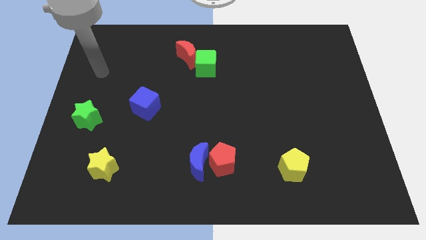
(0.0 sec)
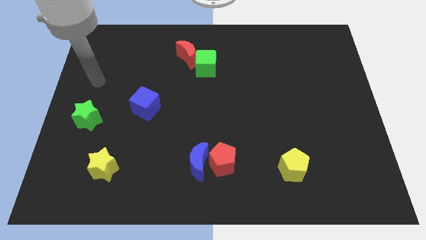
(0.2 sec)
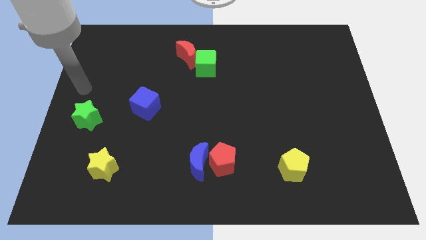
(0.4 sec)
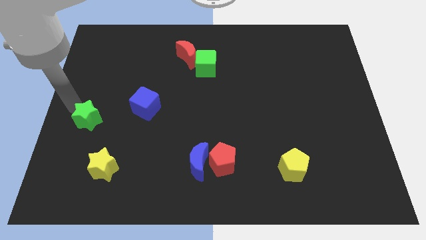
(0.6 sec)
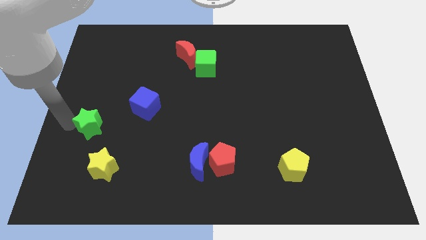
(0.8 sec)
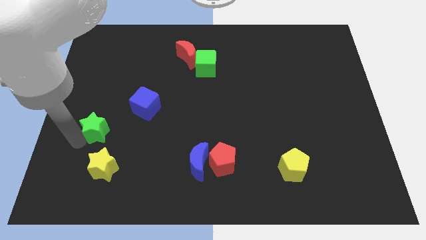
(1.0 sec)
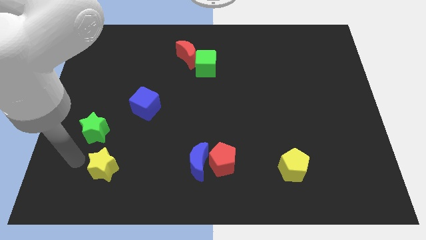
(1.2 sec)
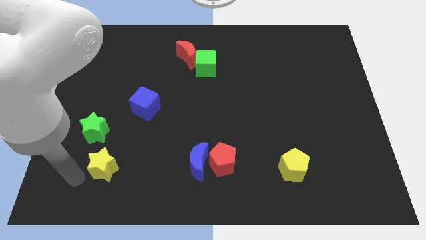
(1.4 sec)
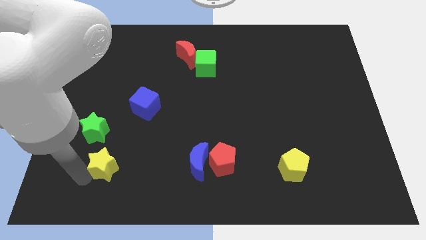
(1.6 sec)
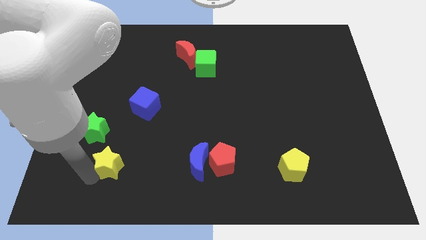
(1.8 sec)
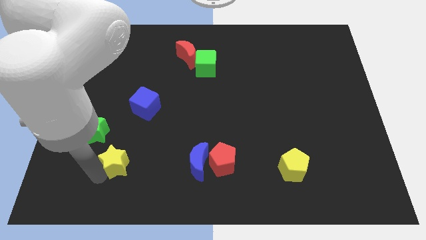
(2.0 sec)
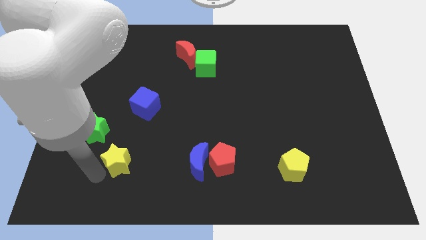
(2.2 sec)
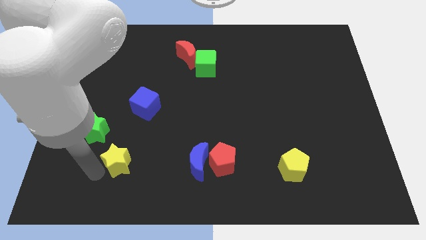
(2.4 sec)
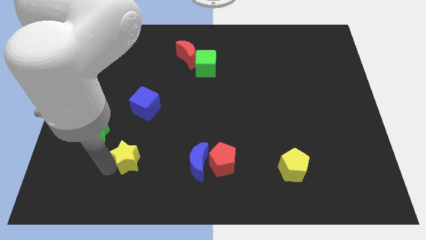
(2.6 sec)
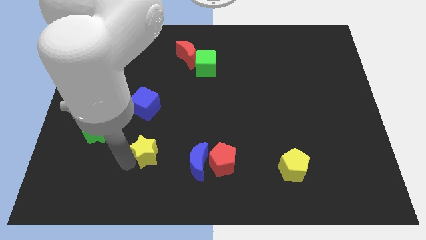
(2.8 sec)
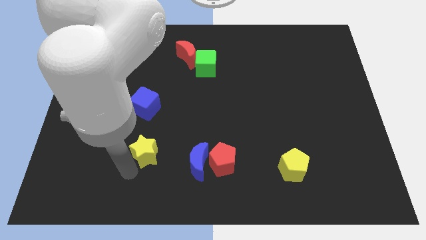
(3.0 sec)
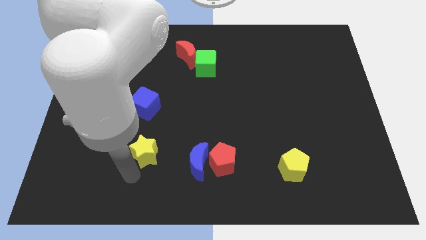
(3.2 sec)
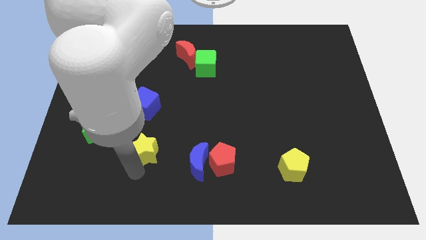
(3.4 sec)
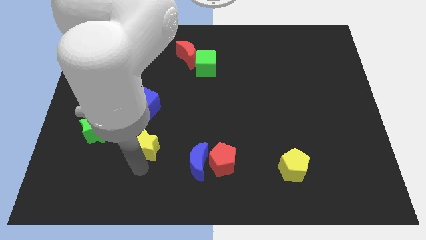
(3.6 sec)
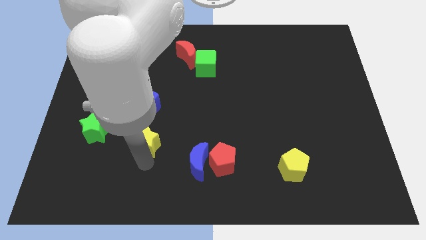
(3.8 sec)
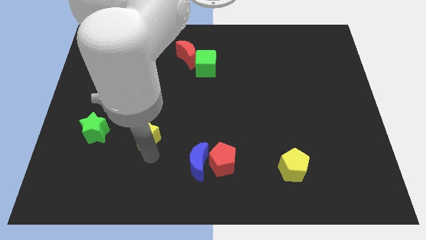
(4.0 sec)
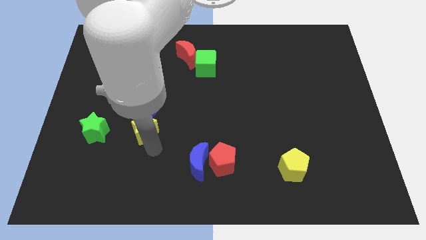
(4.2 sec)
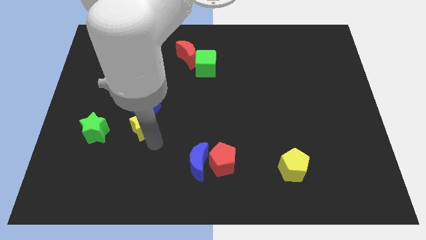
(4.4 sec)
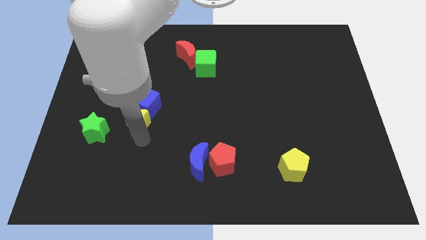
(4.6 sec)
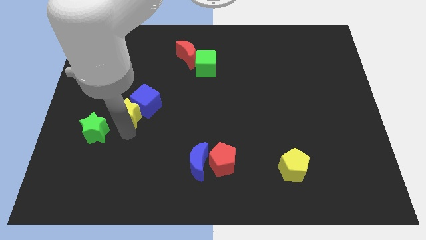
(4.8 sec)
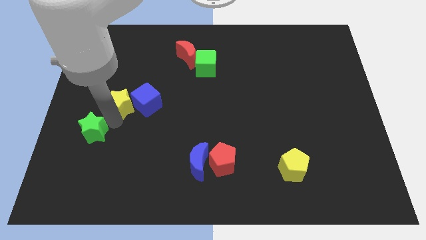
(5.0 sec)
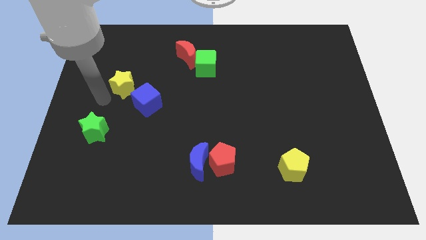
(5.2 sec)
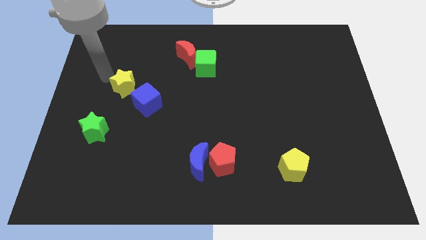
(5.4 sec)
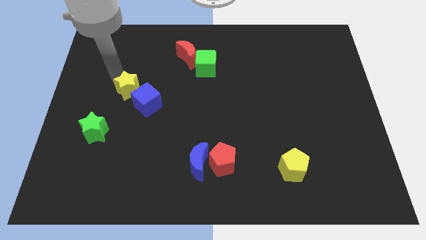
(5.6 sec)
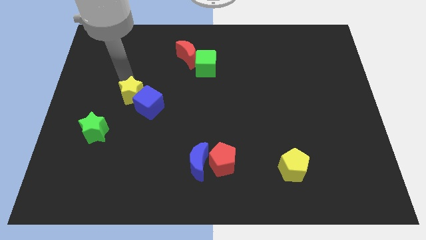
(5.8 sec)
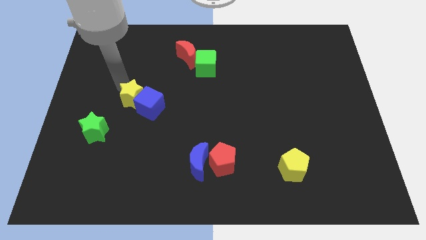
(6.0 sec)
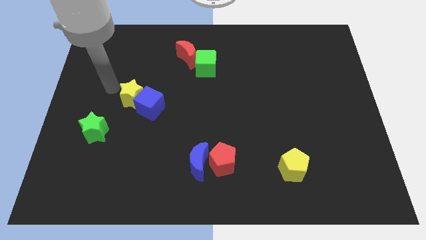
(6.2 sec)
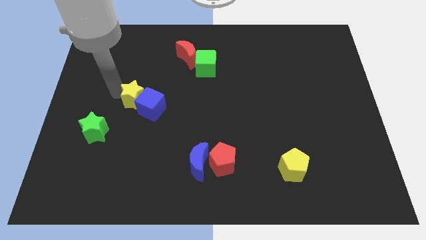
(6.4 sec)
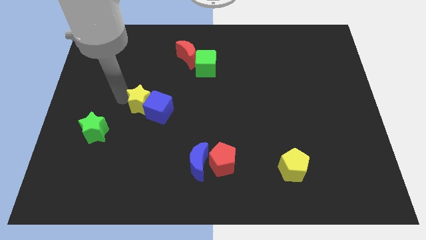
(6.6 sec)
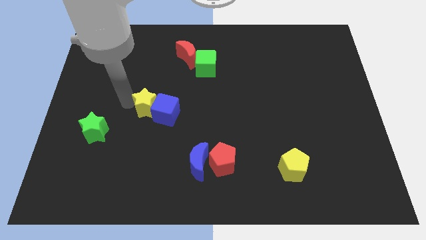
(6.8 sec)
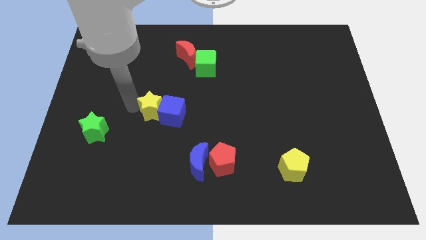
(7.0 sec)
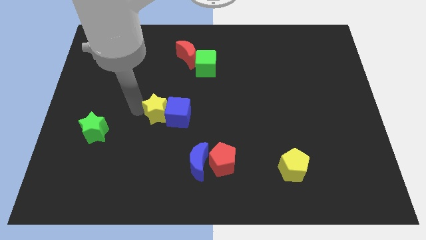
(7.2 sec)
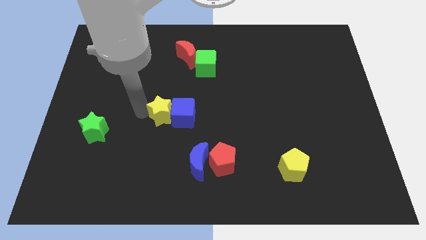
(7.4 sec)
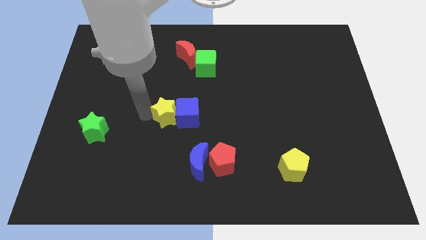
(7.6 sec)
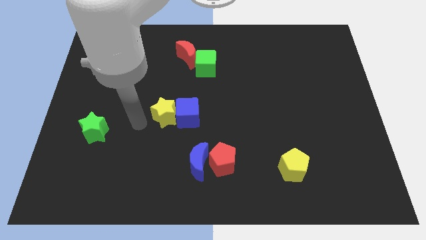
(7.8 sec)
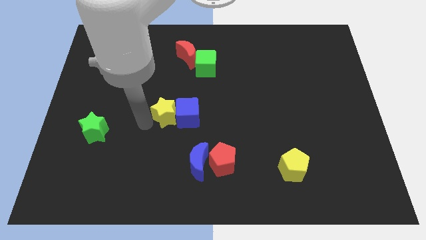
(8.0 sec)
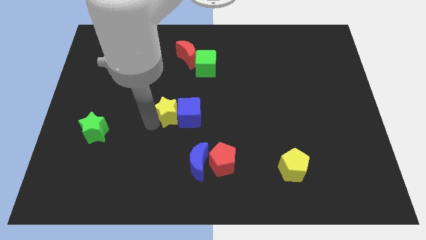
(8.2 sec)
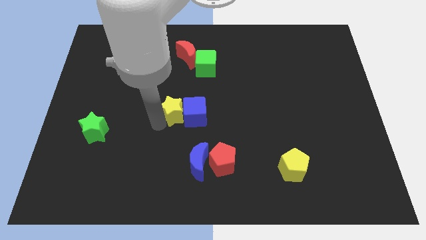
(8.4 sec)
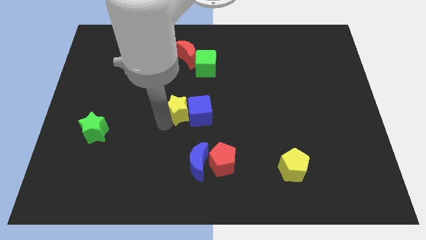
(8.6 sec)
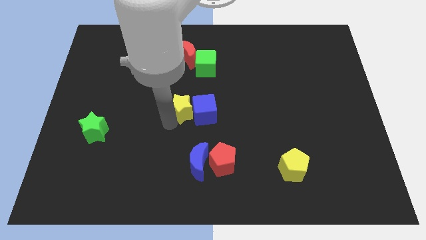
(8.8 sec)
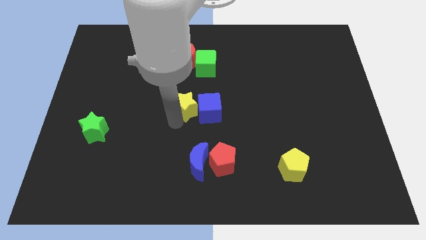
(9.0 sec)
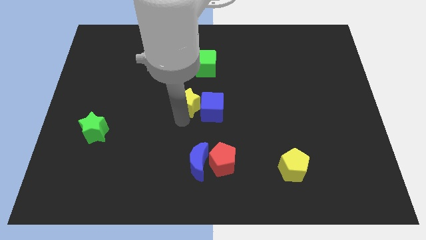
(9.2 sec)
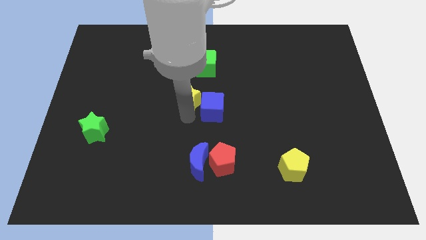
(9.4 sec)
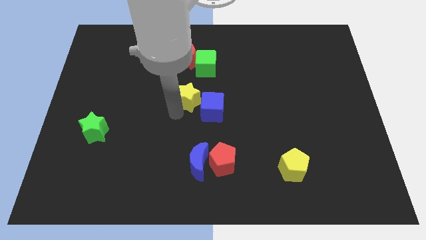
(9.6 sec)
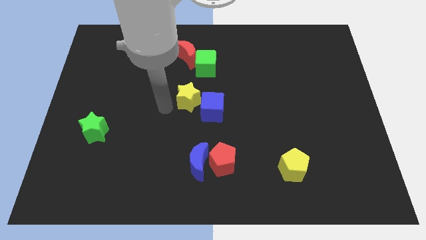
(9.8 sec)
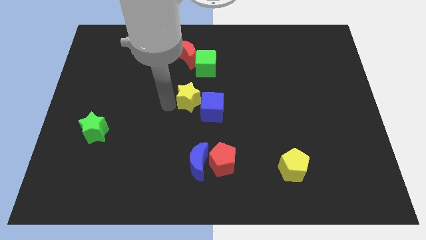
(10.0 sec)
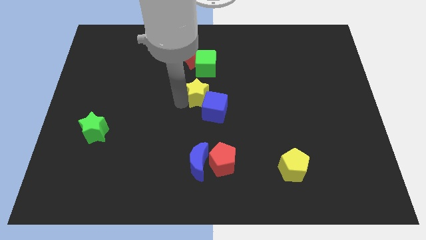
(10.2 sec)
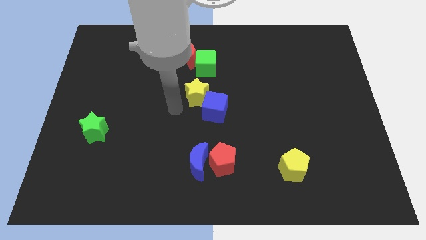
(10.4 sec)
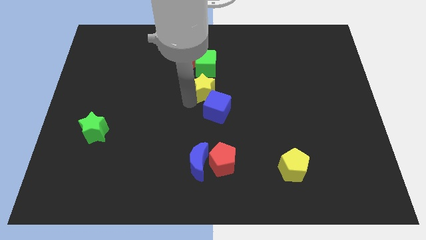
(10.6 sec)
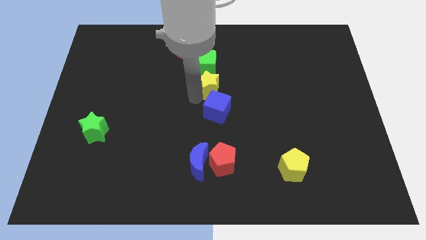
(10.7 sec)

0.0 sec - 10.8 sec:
push the yellow star to the bottom right side of the green cube

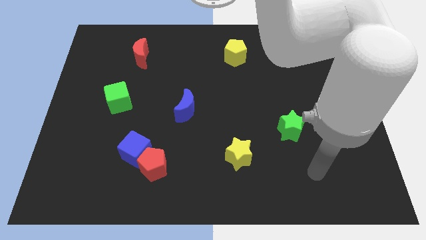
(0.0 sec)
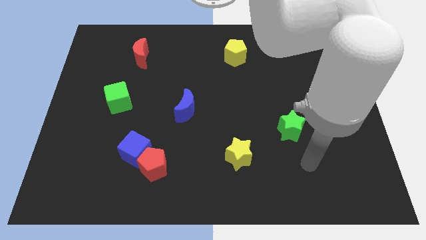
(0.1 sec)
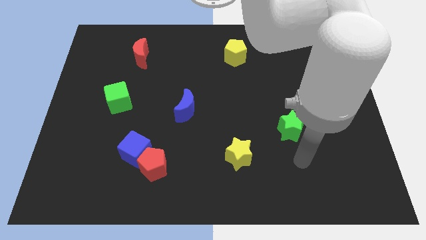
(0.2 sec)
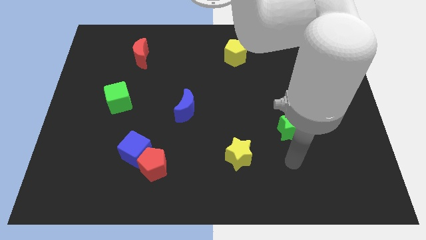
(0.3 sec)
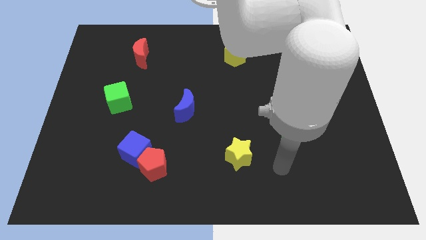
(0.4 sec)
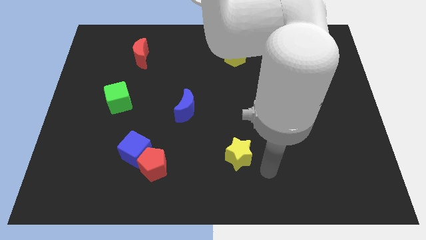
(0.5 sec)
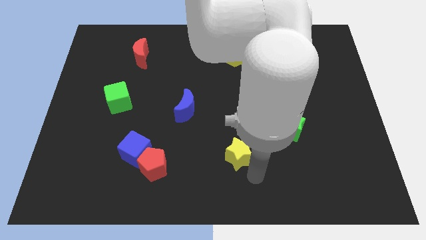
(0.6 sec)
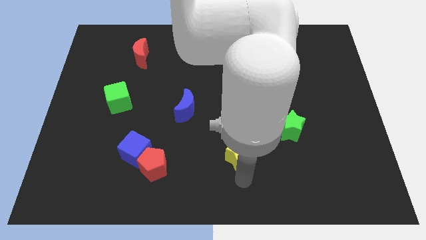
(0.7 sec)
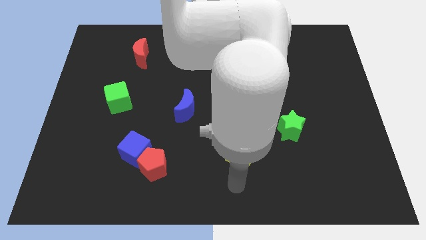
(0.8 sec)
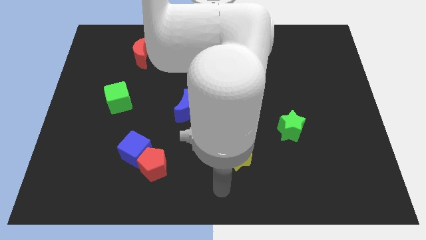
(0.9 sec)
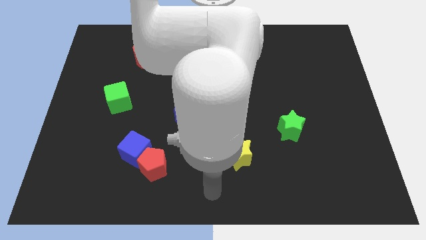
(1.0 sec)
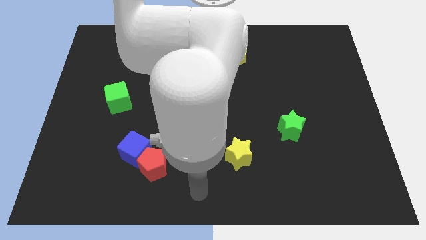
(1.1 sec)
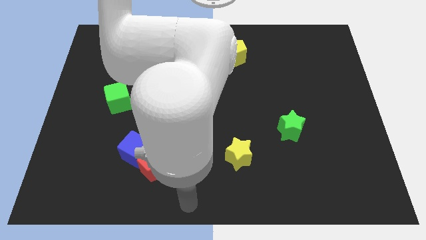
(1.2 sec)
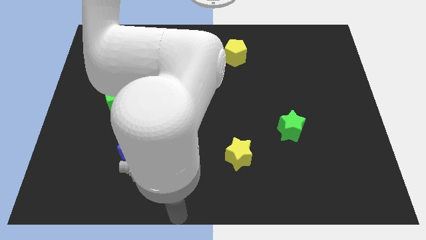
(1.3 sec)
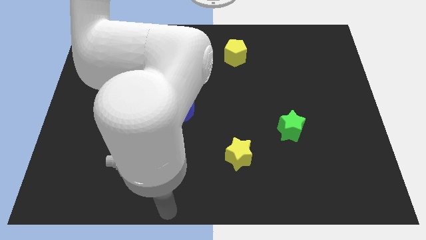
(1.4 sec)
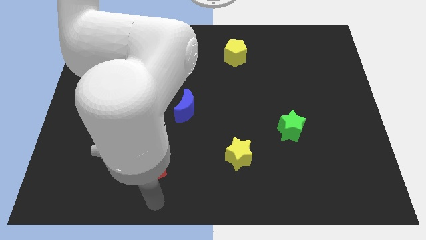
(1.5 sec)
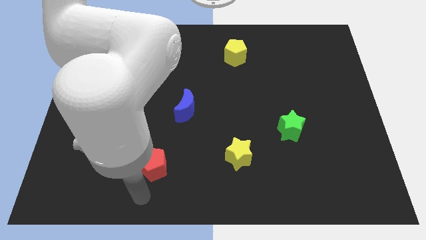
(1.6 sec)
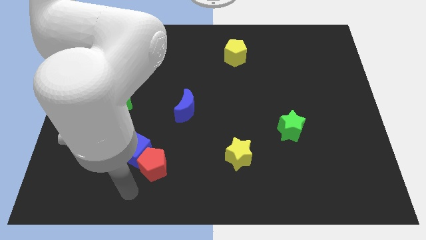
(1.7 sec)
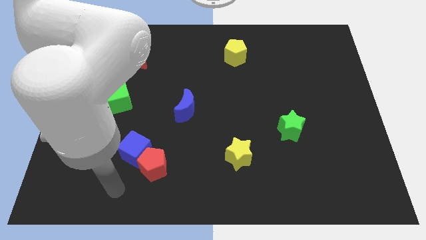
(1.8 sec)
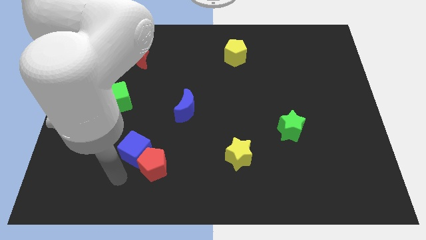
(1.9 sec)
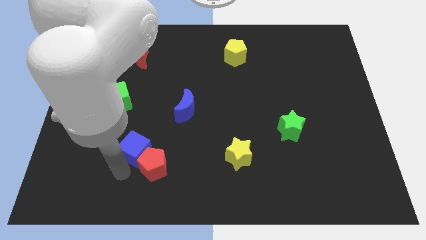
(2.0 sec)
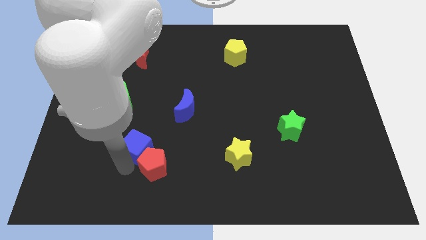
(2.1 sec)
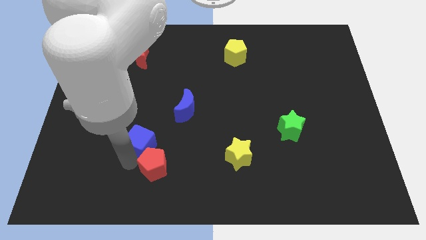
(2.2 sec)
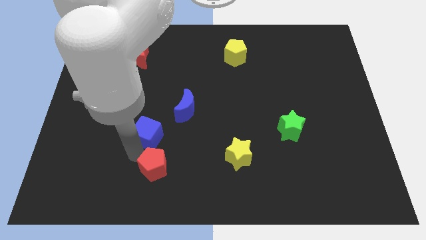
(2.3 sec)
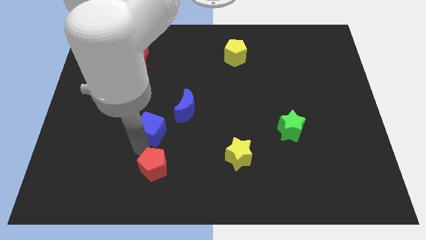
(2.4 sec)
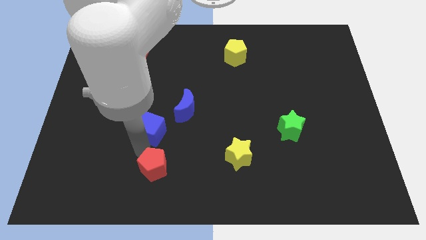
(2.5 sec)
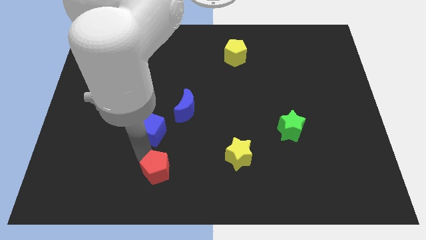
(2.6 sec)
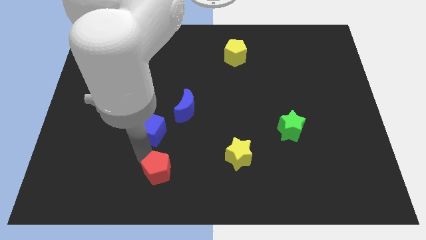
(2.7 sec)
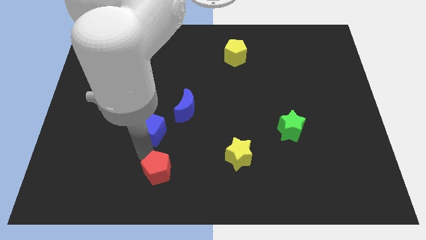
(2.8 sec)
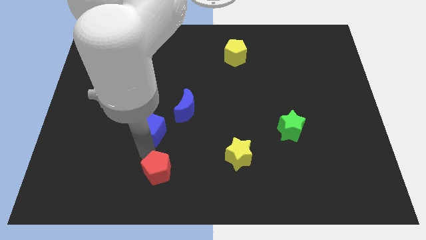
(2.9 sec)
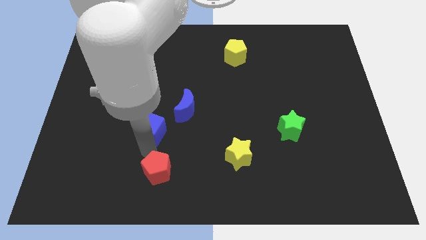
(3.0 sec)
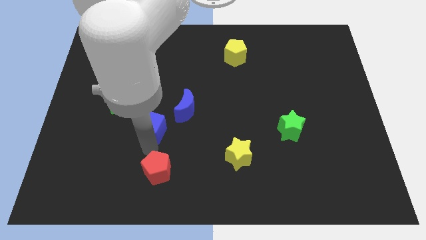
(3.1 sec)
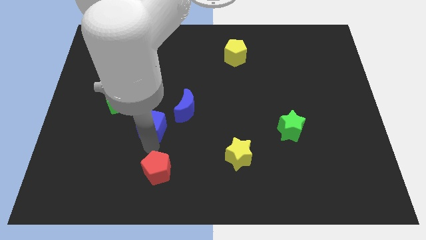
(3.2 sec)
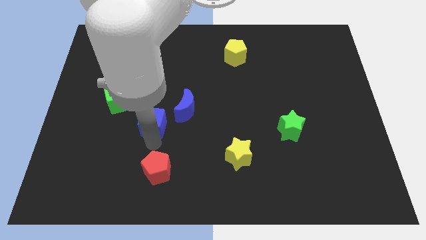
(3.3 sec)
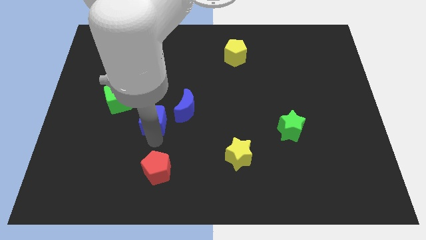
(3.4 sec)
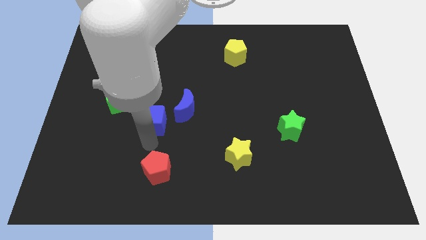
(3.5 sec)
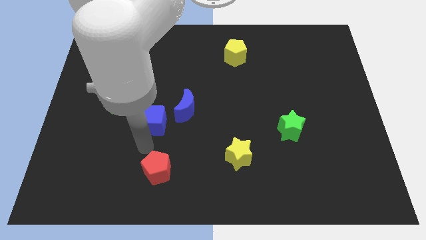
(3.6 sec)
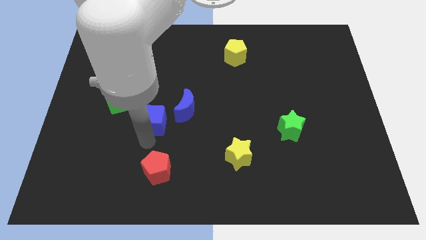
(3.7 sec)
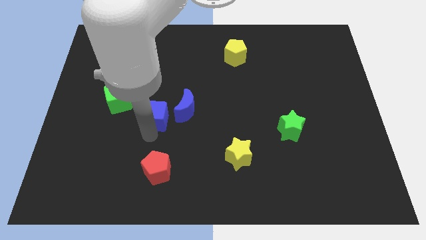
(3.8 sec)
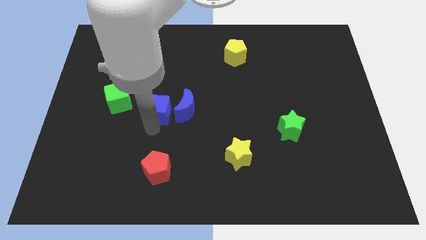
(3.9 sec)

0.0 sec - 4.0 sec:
put the blue cube right of the green cube
